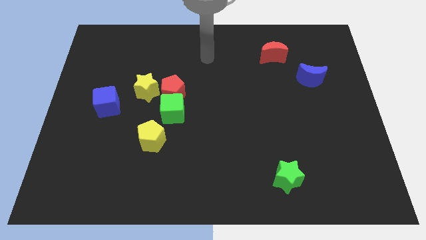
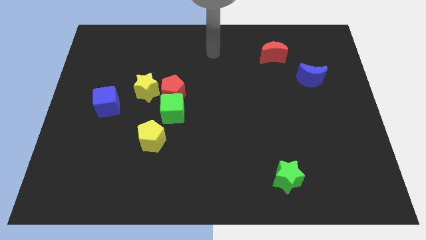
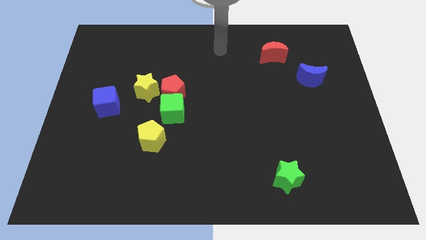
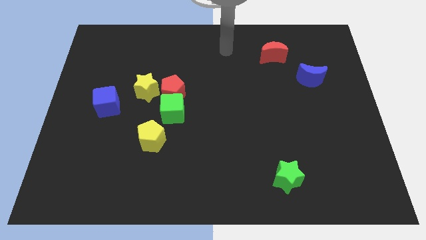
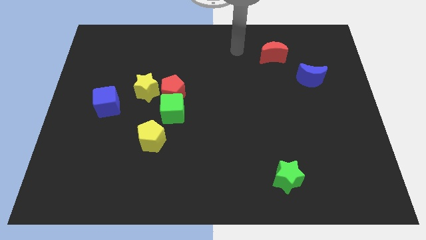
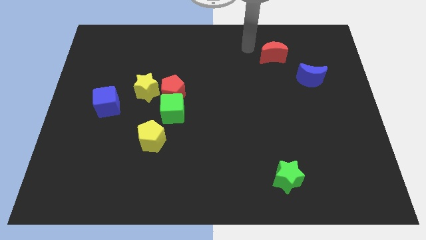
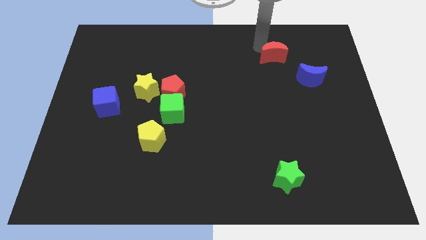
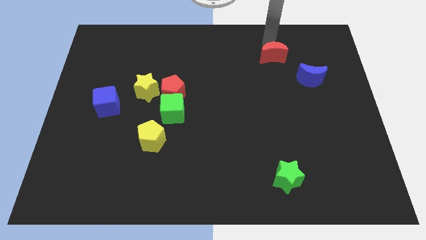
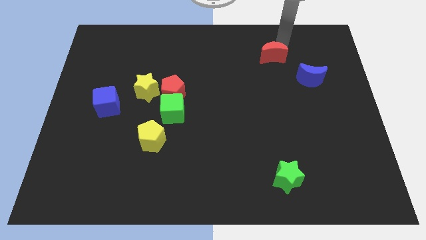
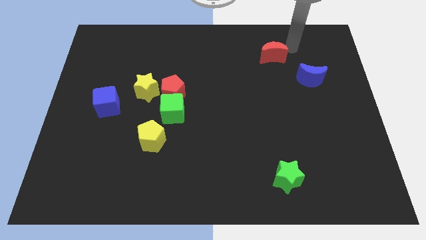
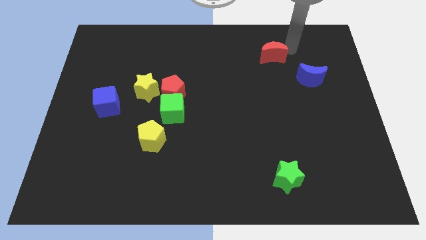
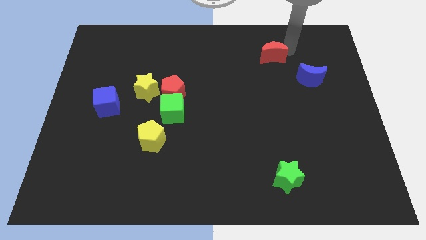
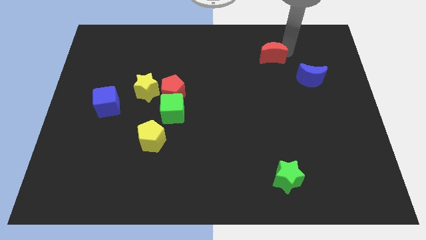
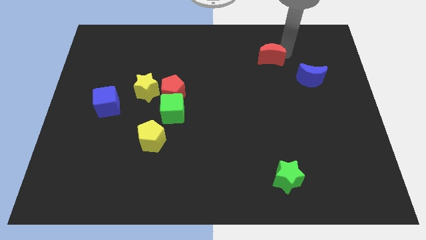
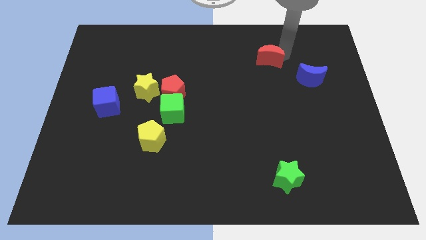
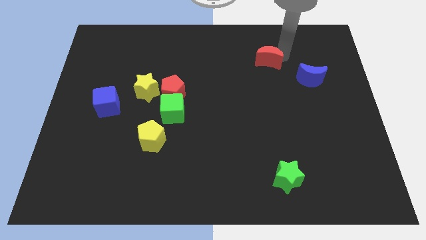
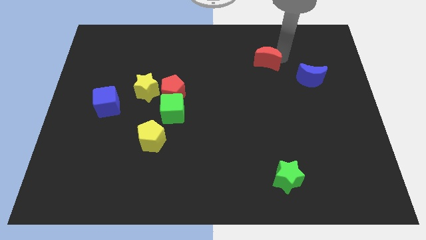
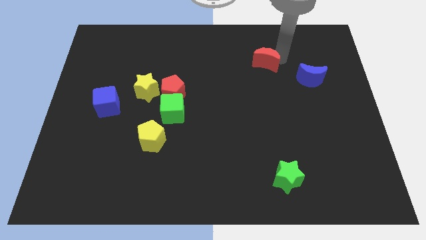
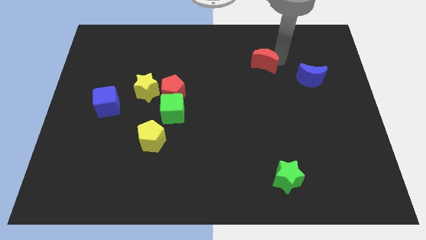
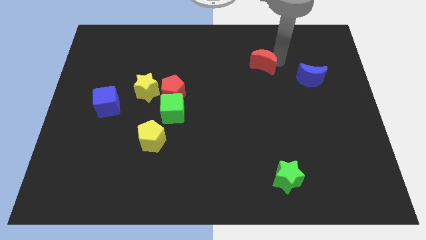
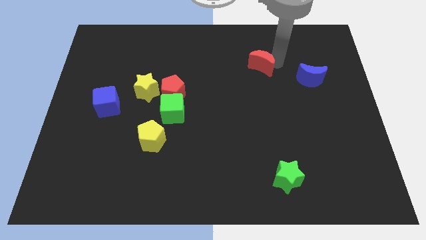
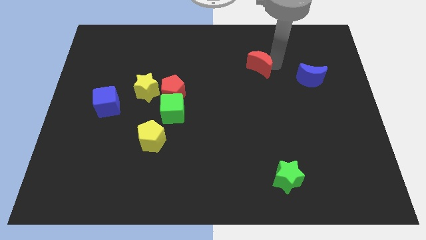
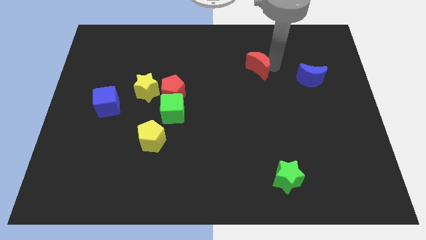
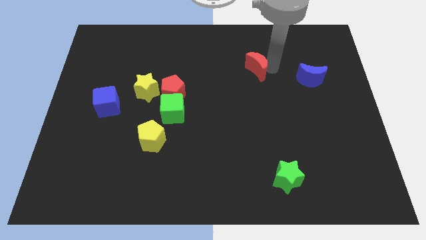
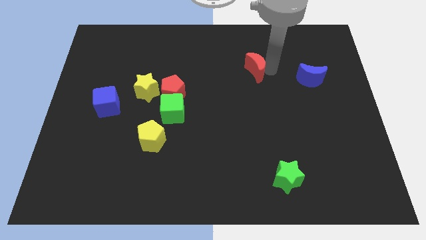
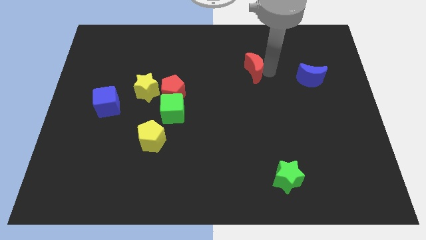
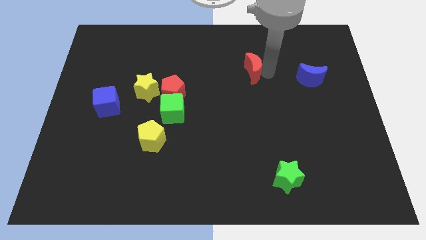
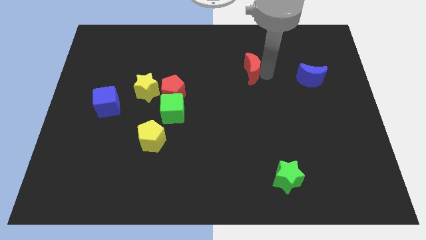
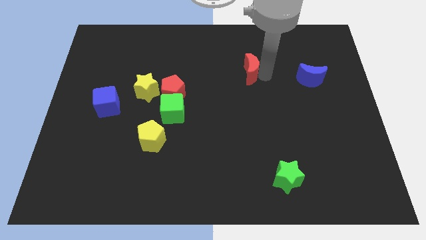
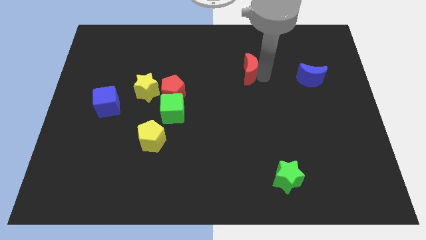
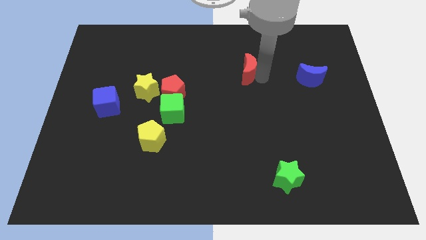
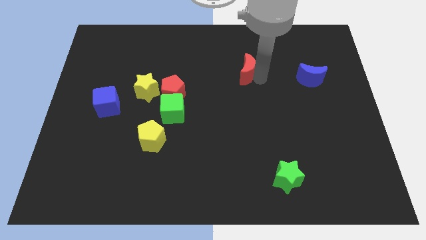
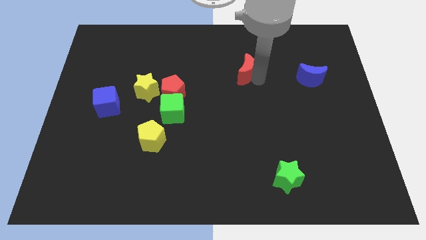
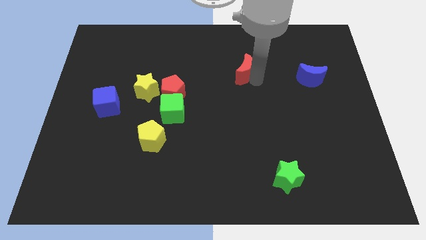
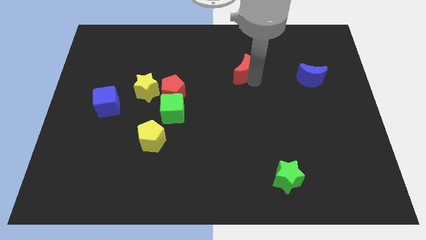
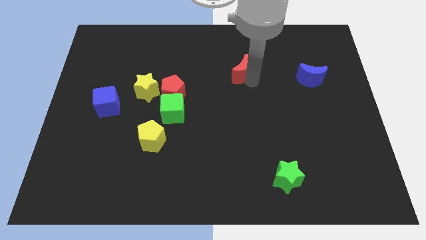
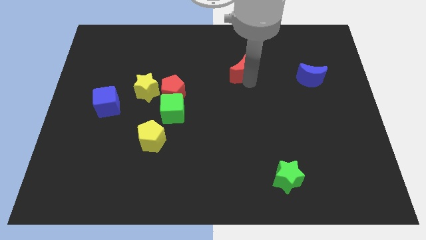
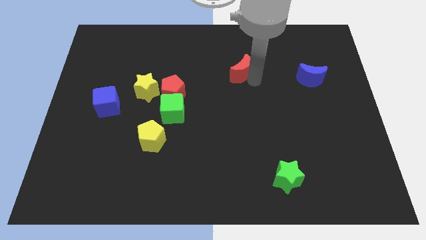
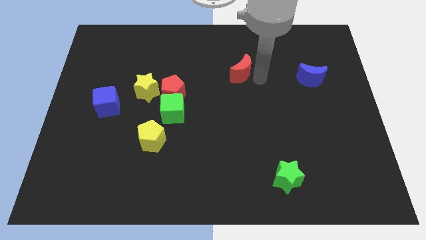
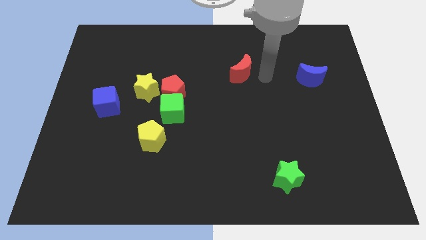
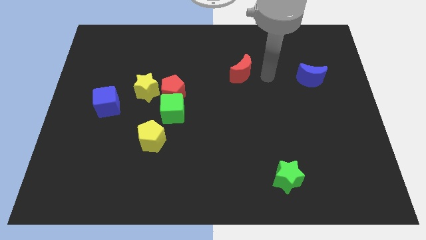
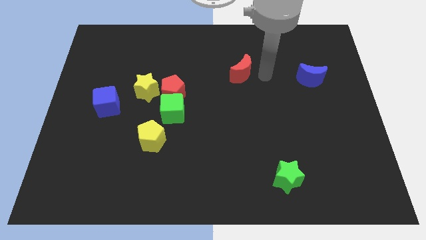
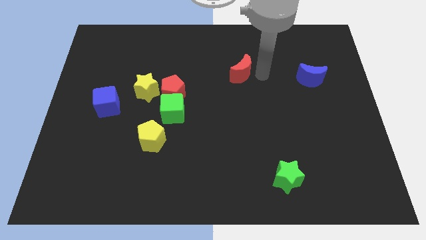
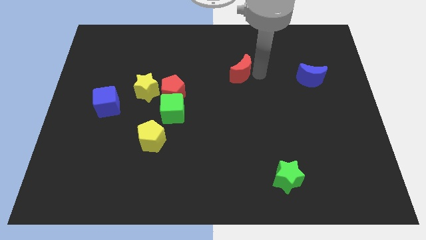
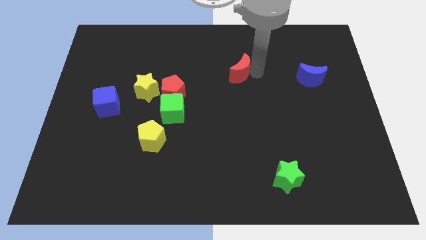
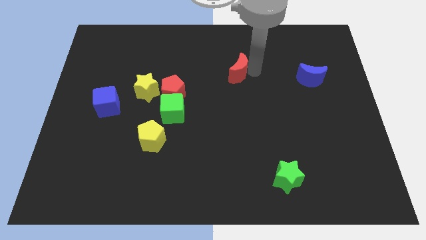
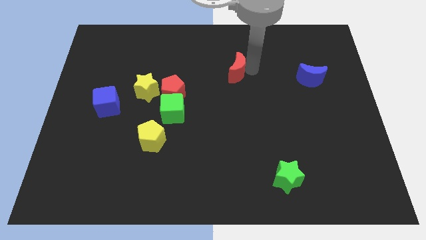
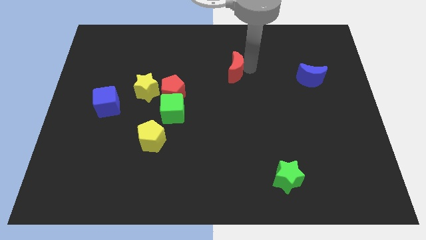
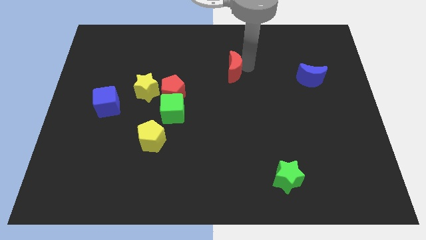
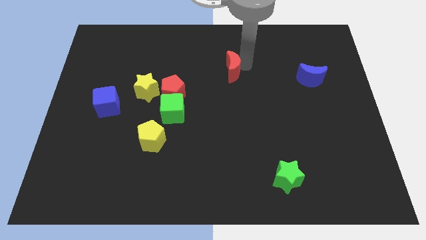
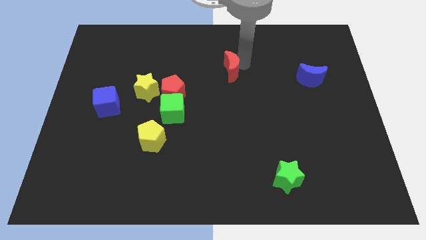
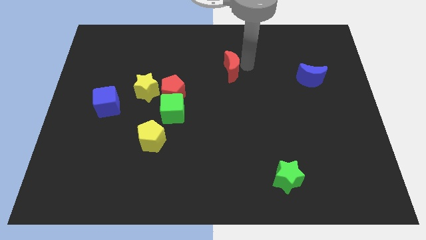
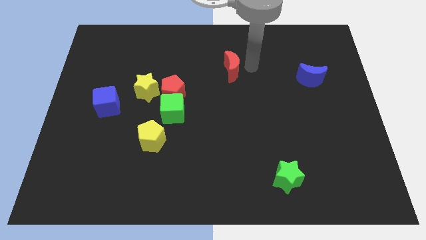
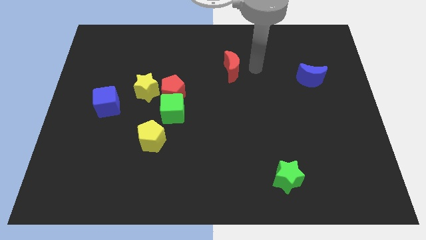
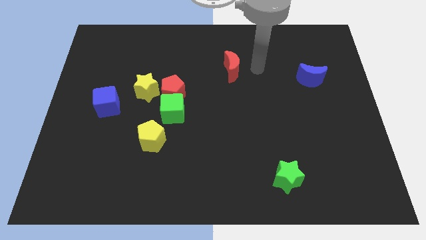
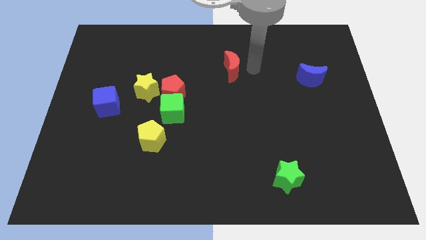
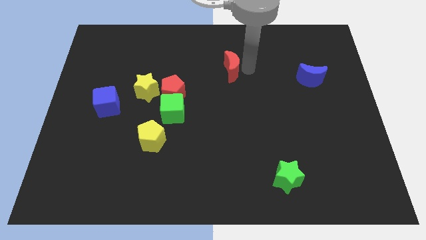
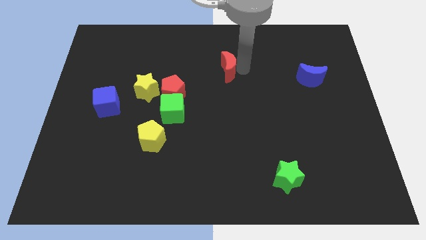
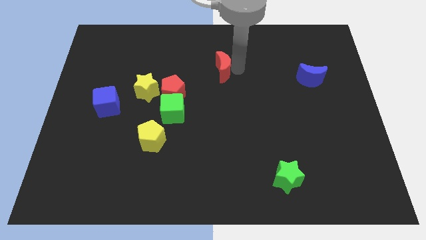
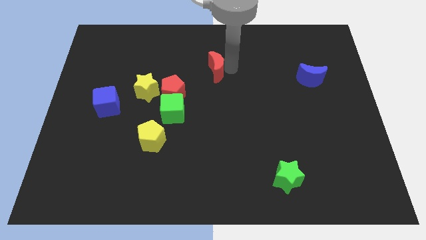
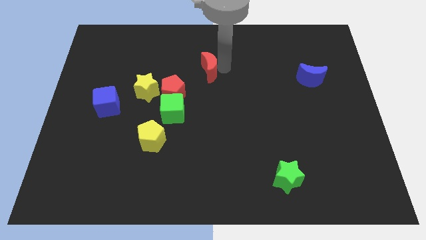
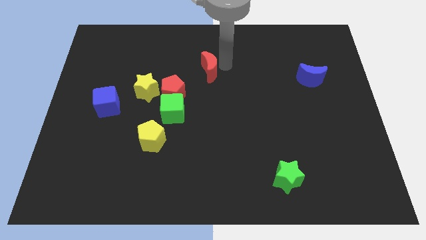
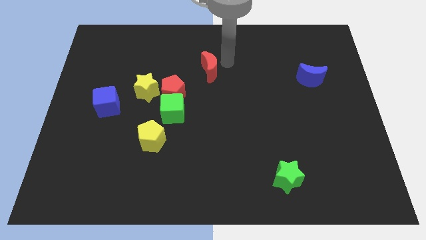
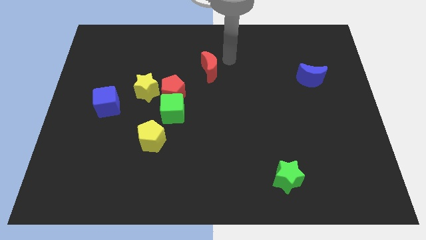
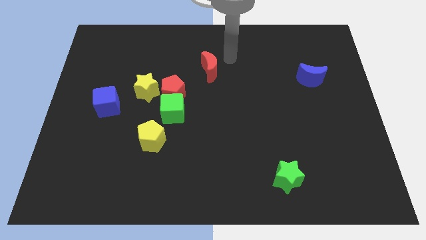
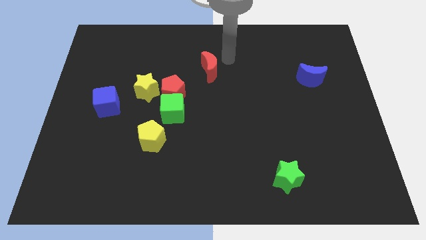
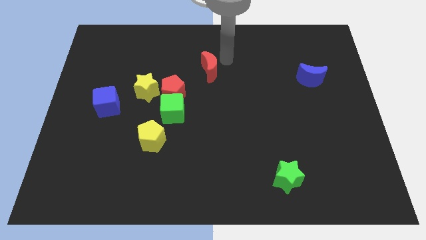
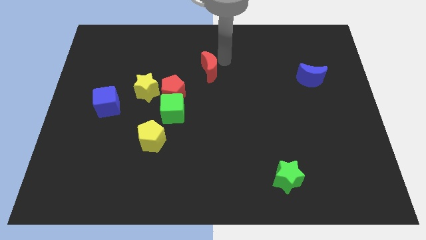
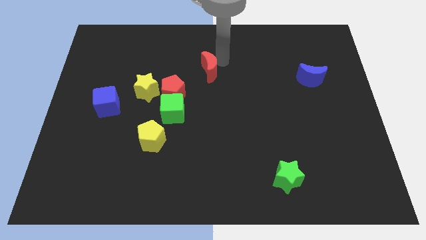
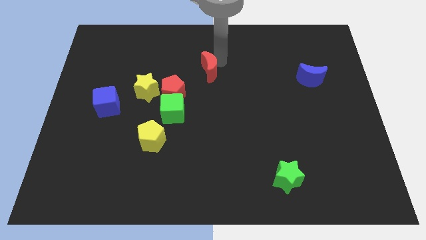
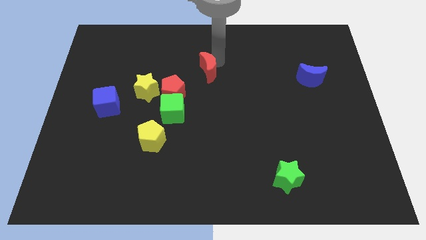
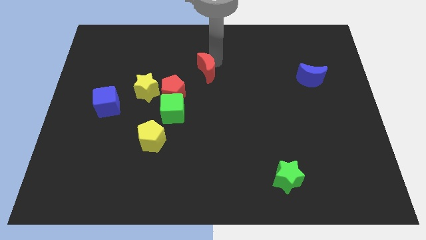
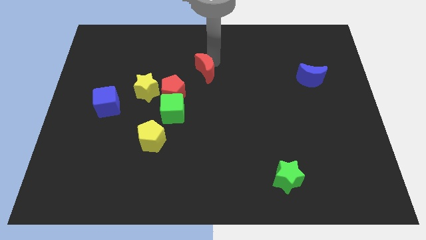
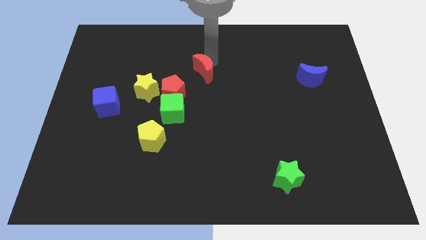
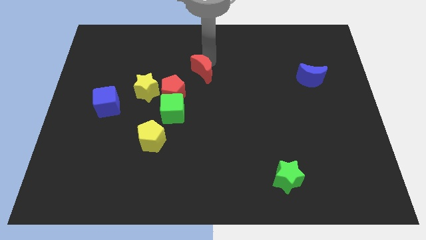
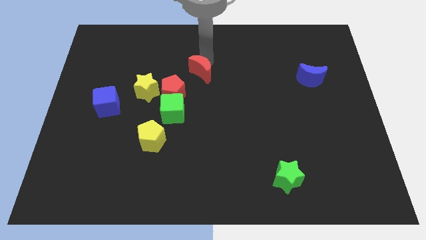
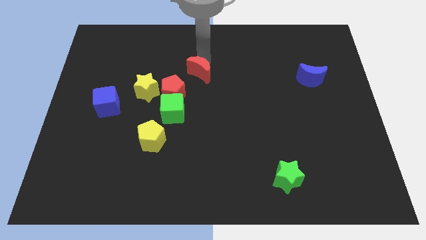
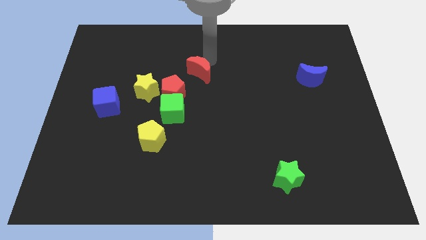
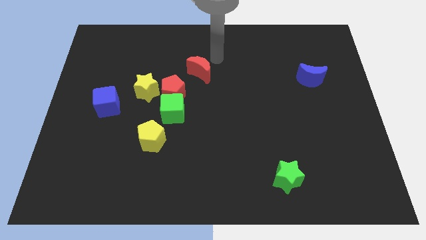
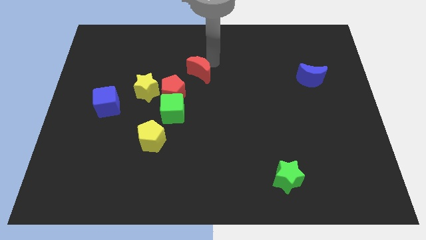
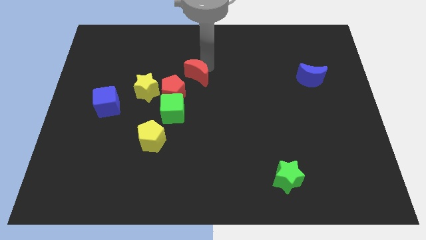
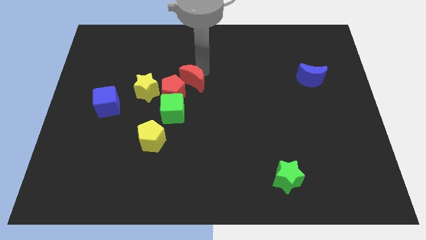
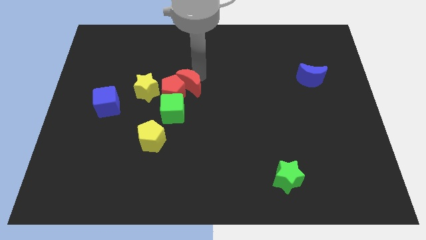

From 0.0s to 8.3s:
put the red moon close to the red pentagon
